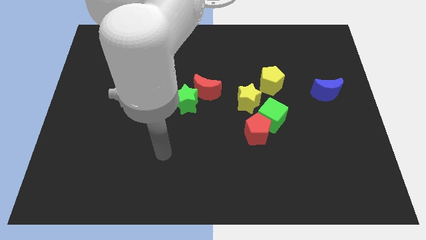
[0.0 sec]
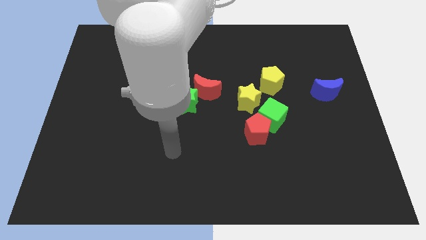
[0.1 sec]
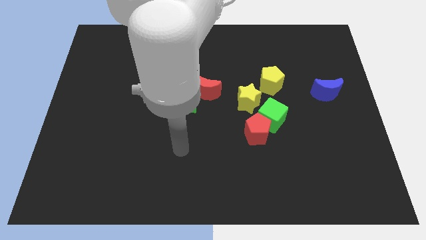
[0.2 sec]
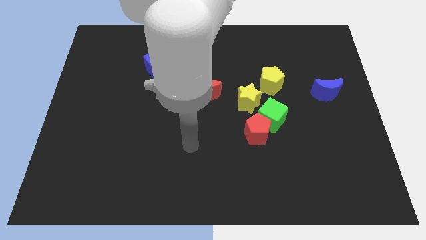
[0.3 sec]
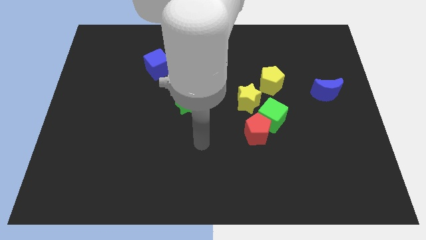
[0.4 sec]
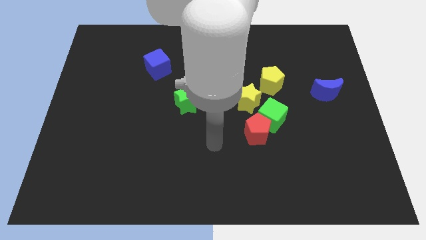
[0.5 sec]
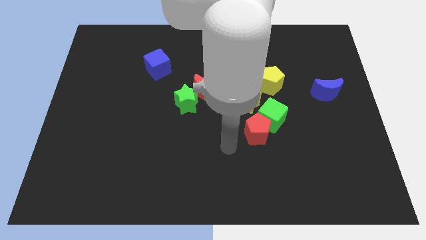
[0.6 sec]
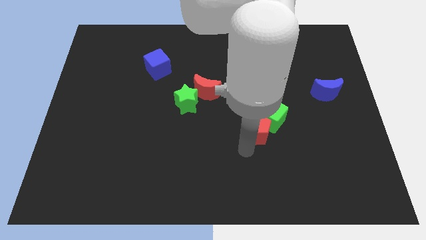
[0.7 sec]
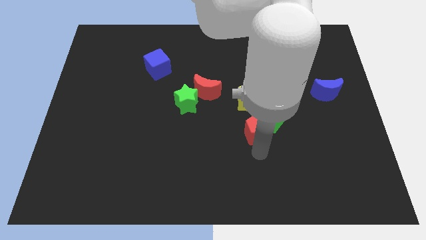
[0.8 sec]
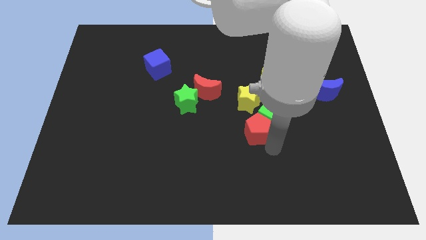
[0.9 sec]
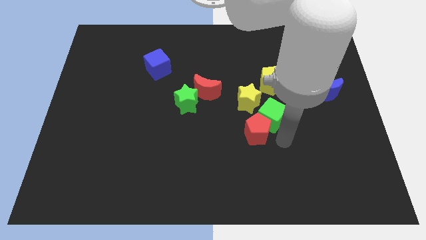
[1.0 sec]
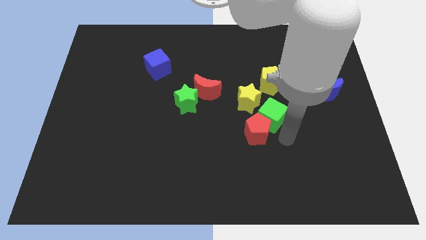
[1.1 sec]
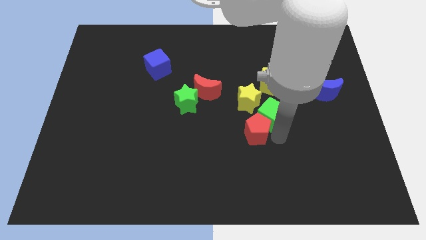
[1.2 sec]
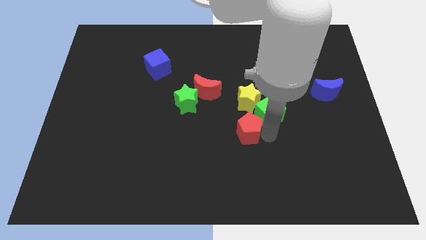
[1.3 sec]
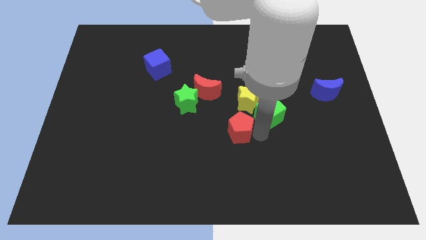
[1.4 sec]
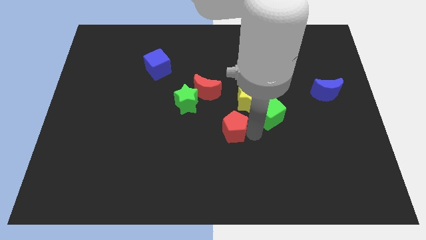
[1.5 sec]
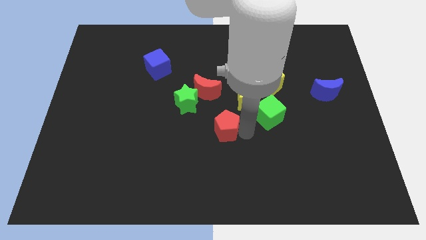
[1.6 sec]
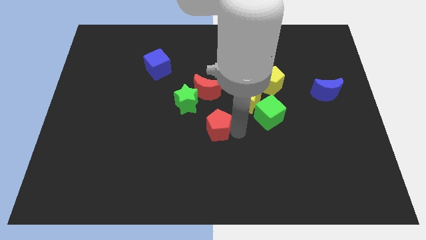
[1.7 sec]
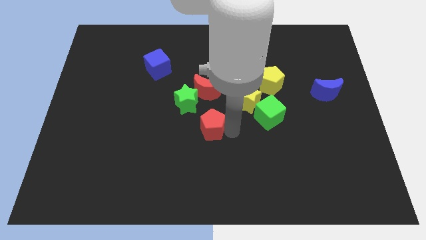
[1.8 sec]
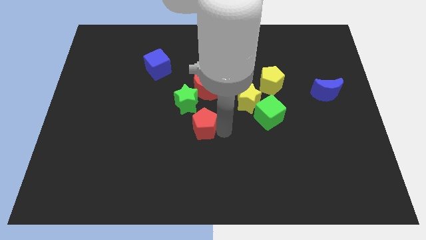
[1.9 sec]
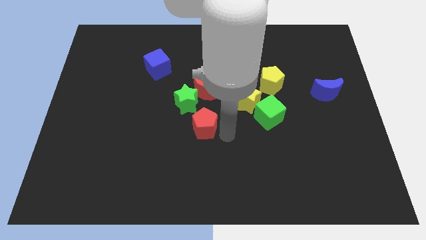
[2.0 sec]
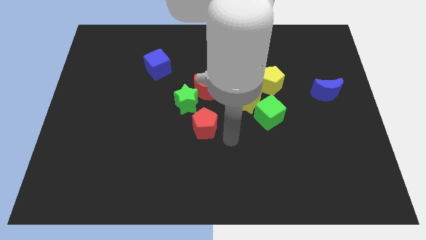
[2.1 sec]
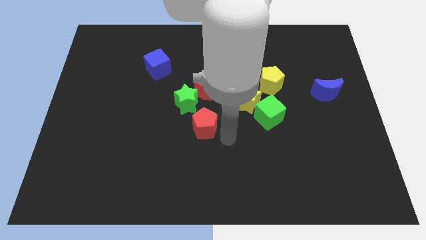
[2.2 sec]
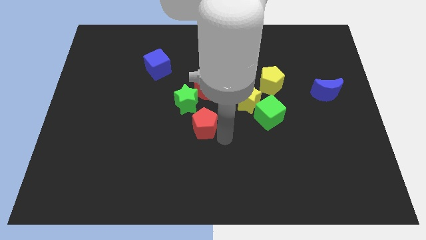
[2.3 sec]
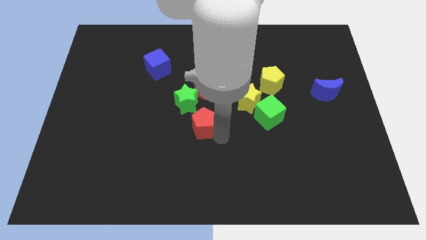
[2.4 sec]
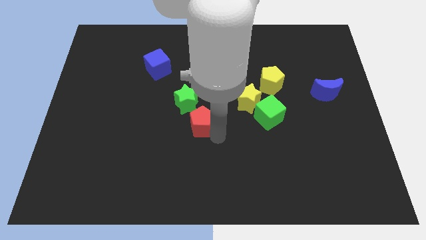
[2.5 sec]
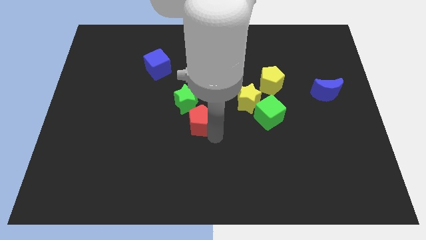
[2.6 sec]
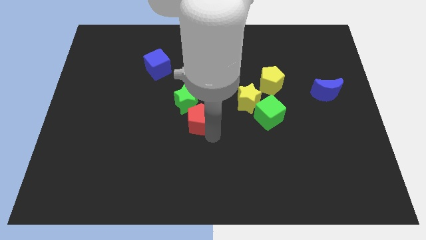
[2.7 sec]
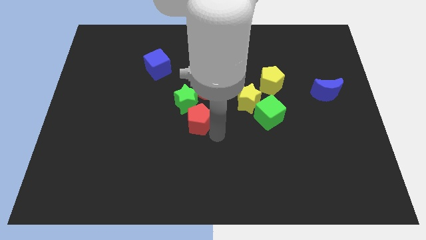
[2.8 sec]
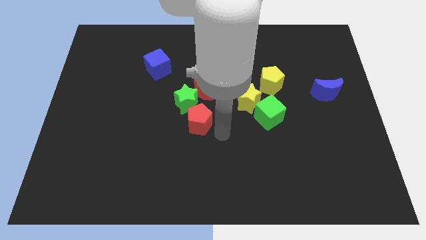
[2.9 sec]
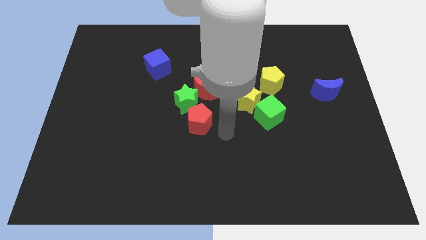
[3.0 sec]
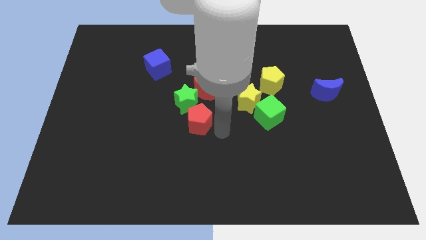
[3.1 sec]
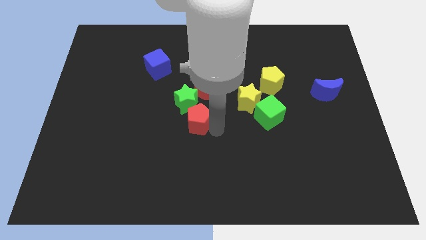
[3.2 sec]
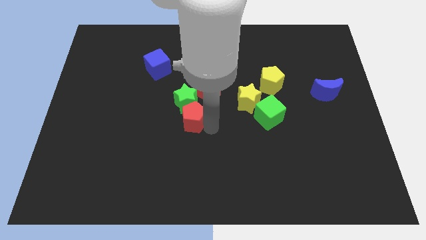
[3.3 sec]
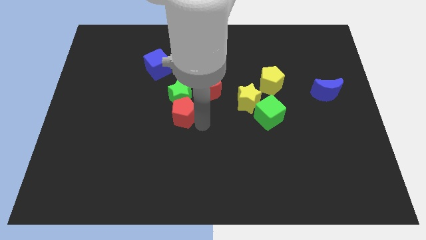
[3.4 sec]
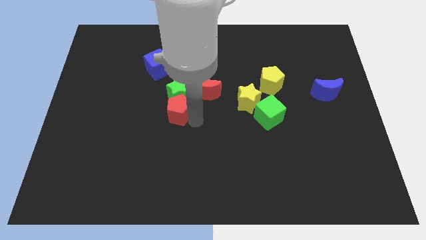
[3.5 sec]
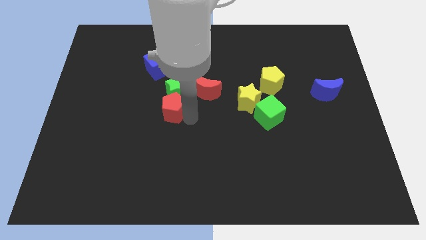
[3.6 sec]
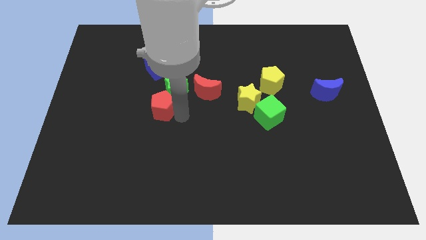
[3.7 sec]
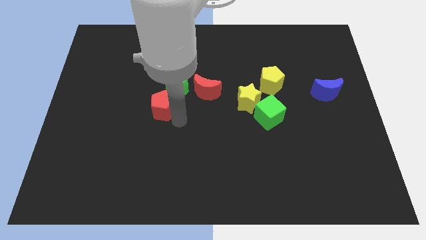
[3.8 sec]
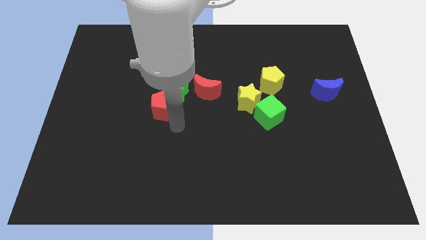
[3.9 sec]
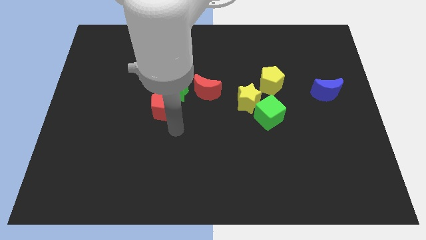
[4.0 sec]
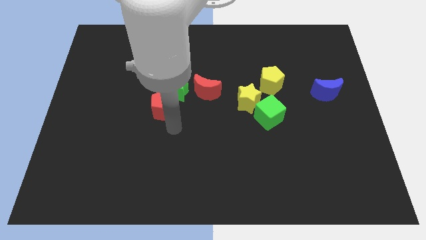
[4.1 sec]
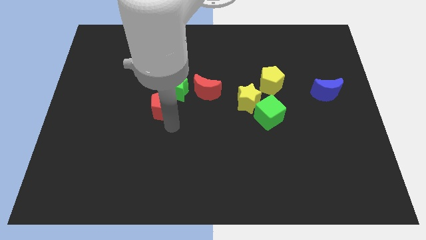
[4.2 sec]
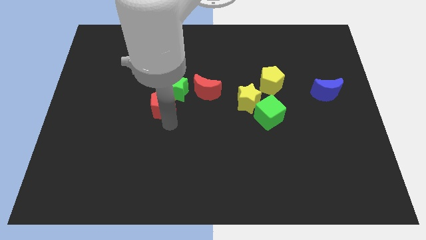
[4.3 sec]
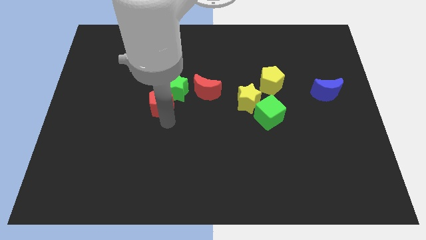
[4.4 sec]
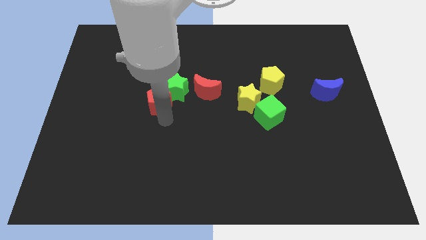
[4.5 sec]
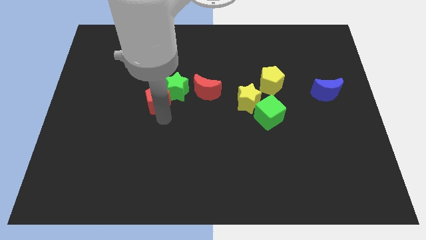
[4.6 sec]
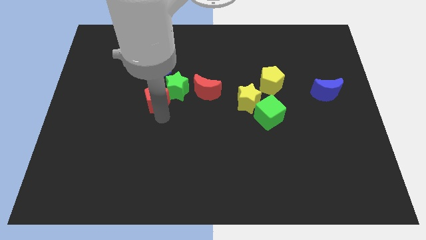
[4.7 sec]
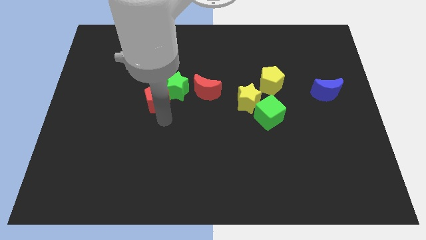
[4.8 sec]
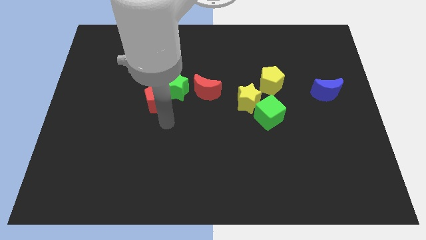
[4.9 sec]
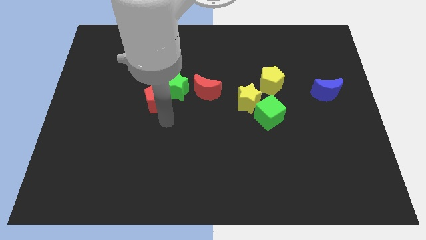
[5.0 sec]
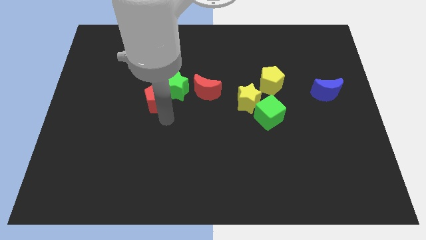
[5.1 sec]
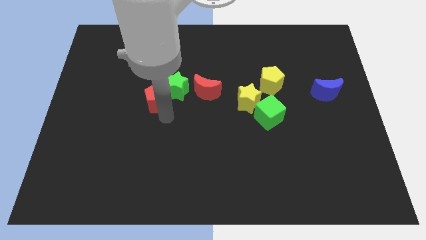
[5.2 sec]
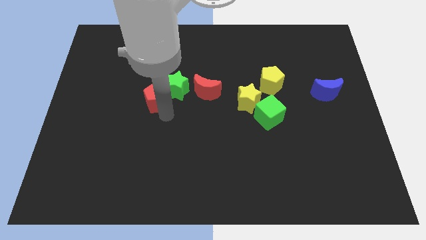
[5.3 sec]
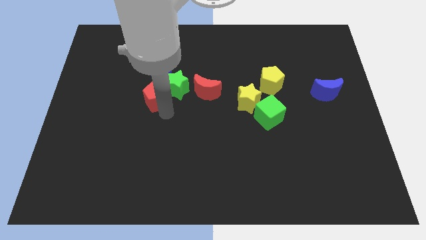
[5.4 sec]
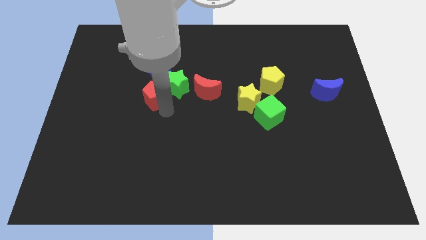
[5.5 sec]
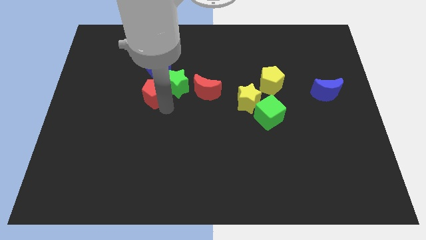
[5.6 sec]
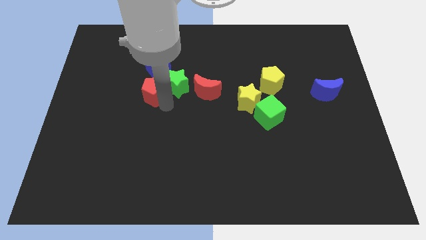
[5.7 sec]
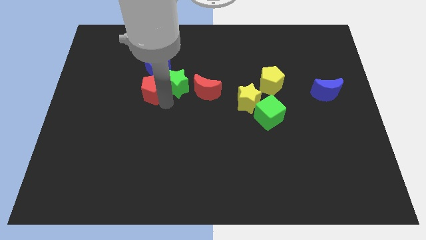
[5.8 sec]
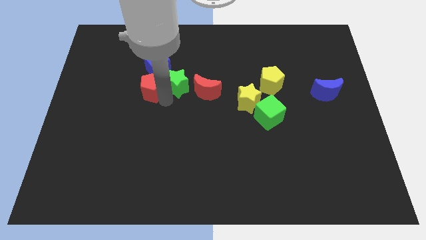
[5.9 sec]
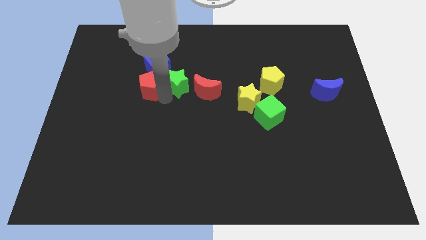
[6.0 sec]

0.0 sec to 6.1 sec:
push the red pentagon to the bottom left of the blue cube

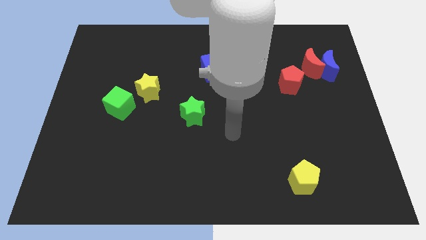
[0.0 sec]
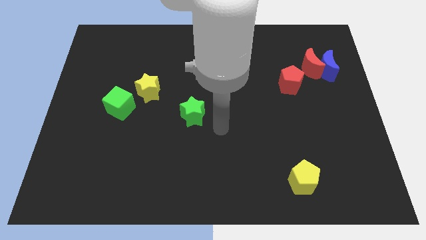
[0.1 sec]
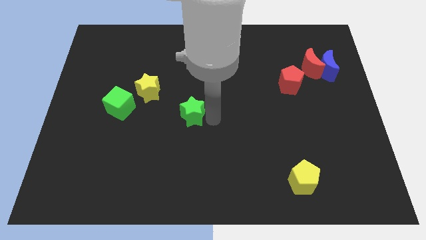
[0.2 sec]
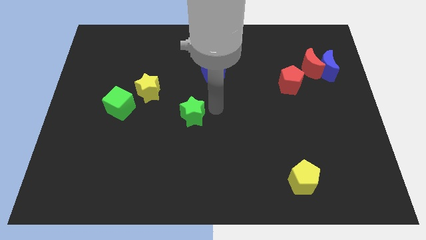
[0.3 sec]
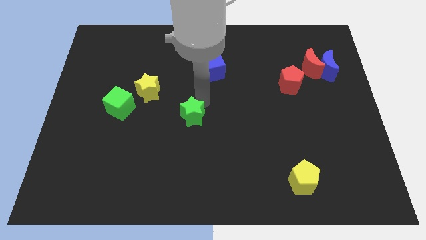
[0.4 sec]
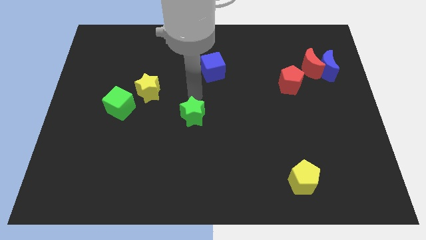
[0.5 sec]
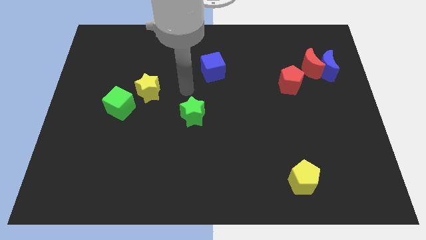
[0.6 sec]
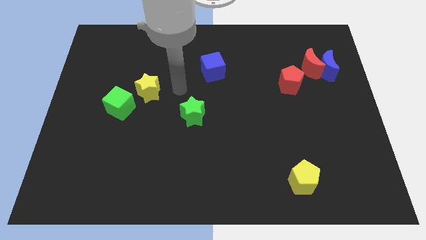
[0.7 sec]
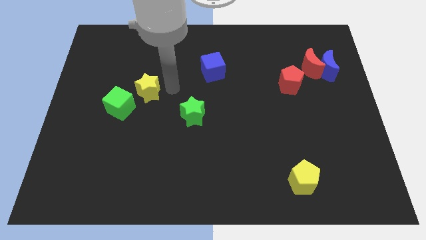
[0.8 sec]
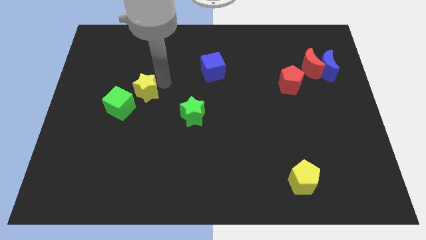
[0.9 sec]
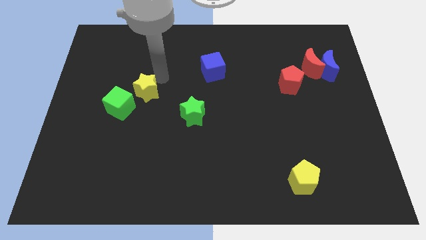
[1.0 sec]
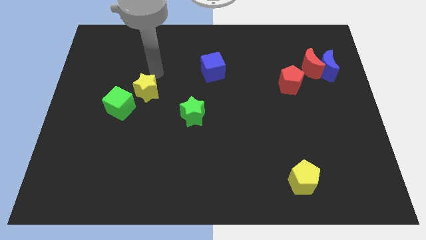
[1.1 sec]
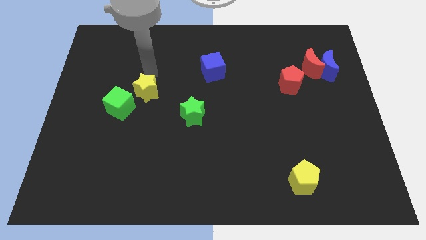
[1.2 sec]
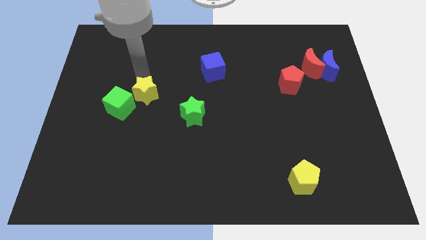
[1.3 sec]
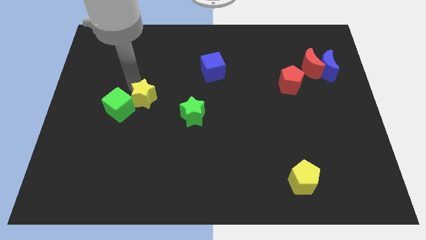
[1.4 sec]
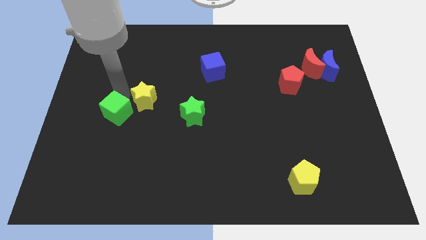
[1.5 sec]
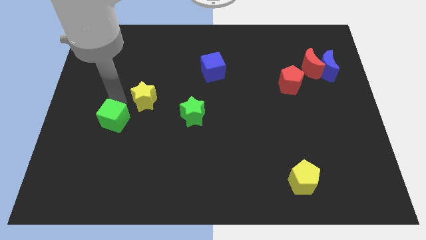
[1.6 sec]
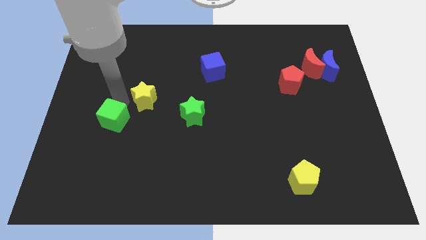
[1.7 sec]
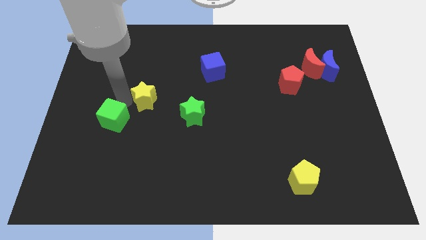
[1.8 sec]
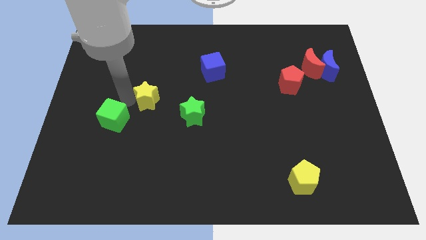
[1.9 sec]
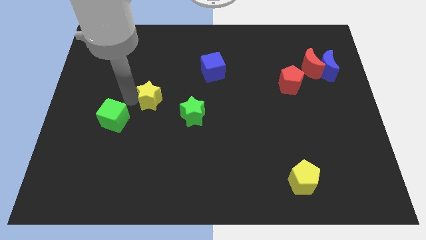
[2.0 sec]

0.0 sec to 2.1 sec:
put the yellow star diagonally up and to the left of the green star
